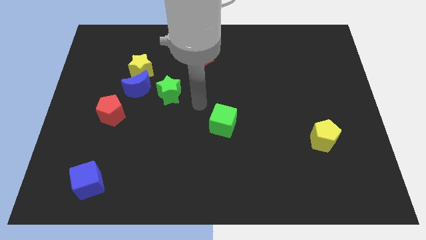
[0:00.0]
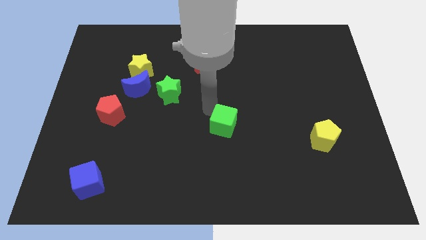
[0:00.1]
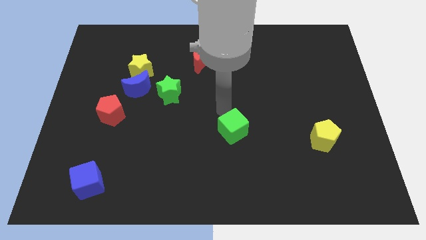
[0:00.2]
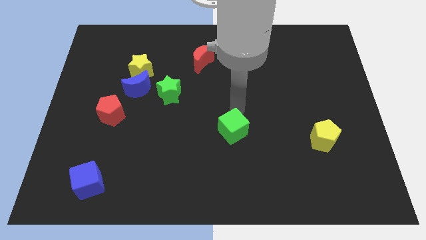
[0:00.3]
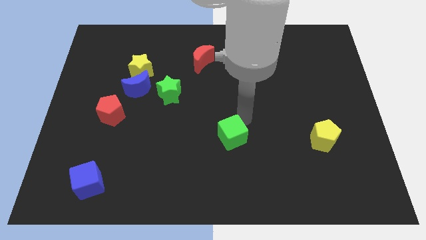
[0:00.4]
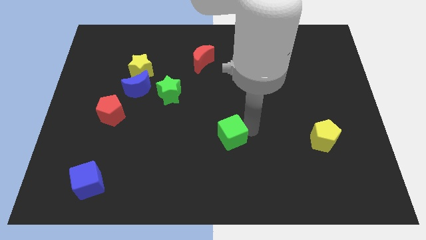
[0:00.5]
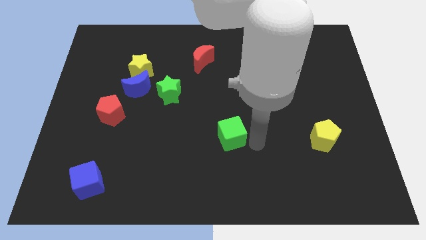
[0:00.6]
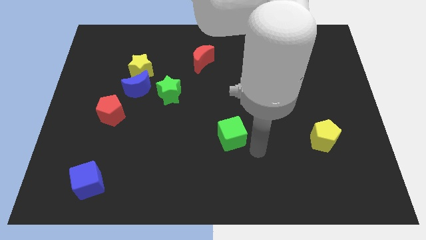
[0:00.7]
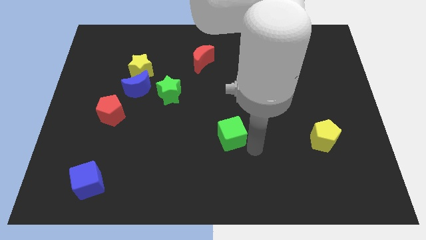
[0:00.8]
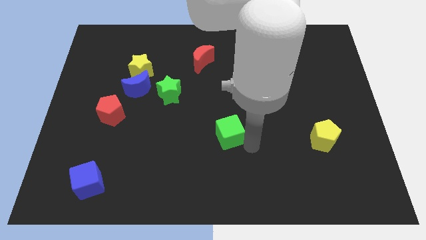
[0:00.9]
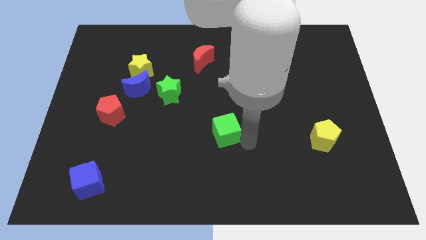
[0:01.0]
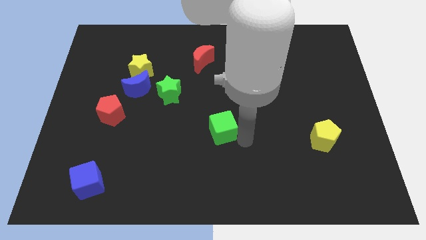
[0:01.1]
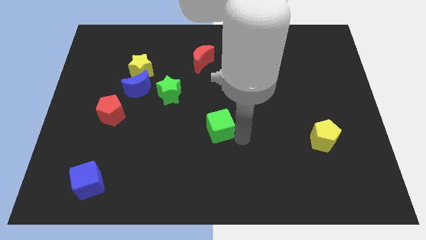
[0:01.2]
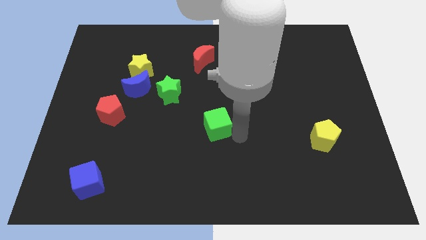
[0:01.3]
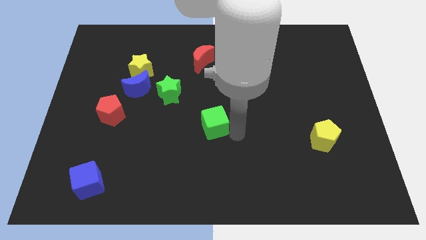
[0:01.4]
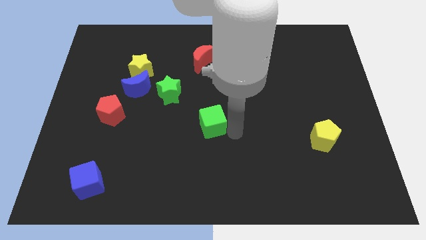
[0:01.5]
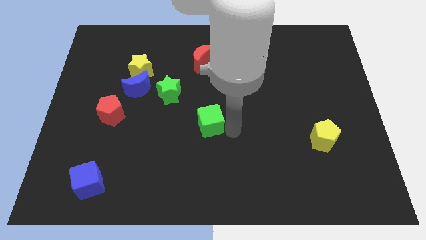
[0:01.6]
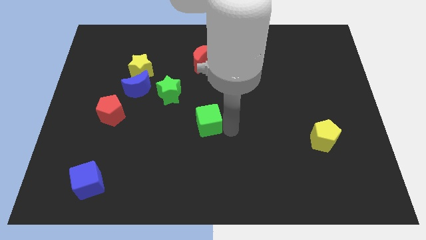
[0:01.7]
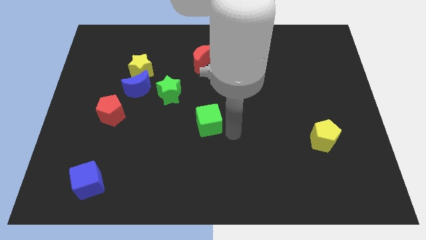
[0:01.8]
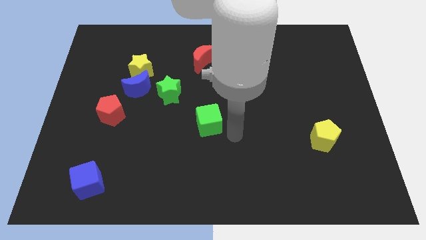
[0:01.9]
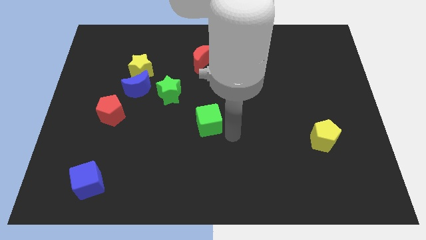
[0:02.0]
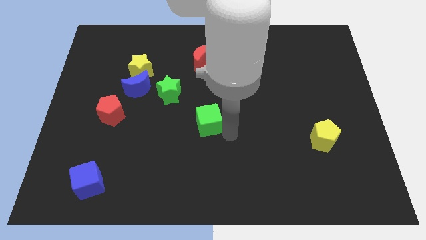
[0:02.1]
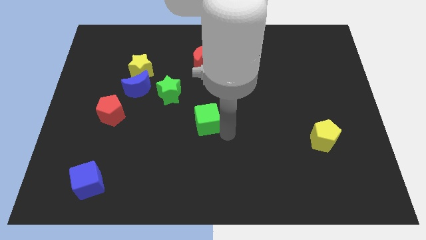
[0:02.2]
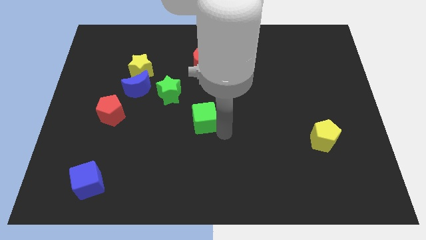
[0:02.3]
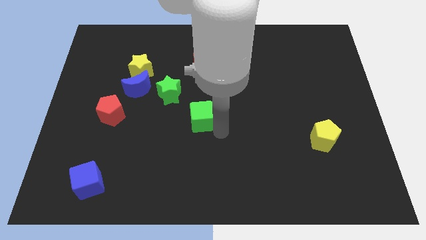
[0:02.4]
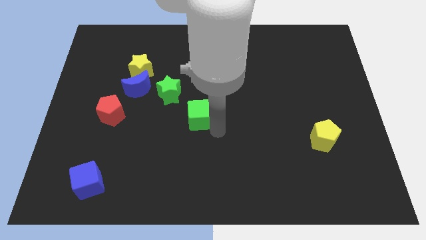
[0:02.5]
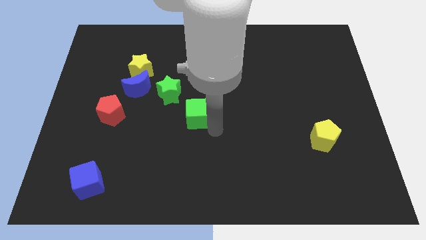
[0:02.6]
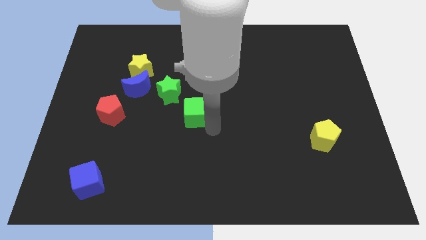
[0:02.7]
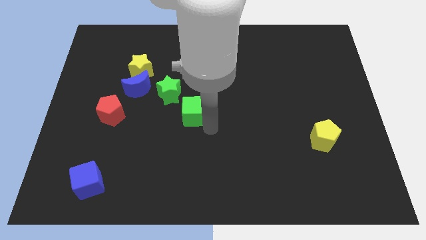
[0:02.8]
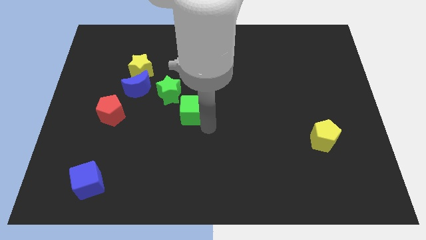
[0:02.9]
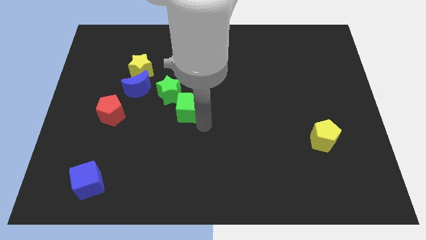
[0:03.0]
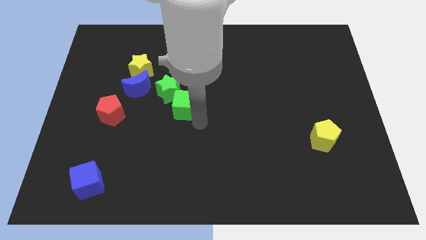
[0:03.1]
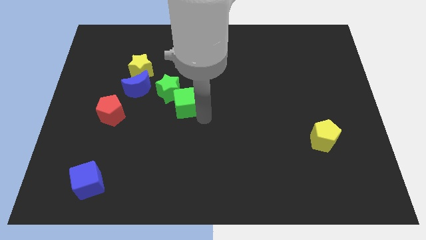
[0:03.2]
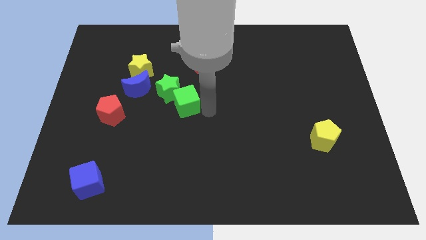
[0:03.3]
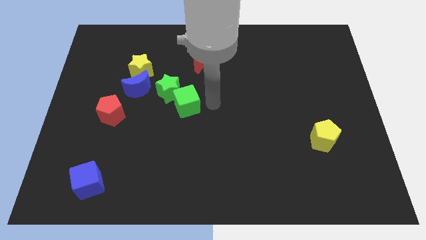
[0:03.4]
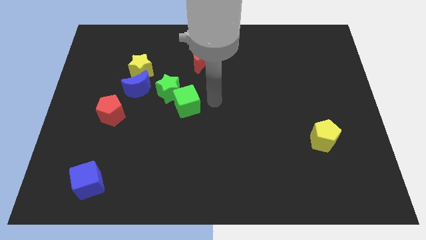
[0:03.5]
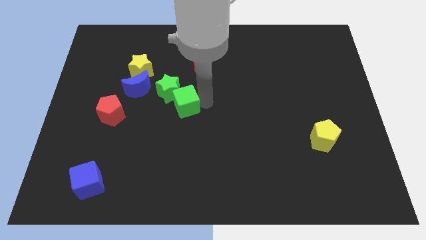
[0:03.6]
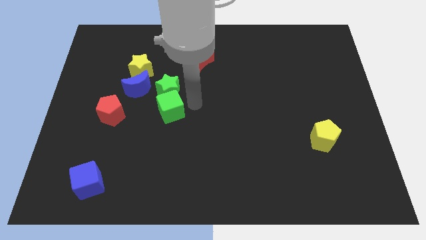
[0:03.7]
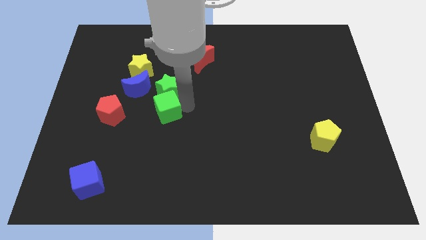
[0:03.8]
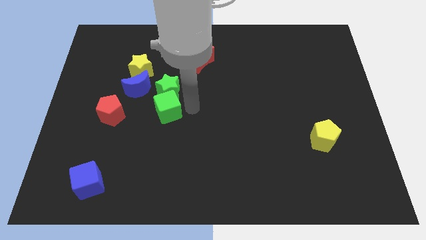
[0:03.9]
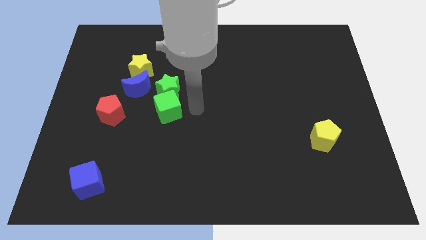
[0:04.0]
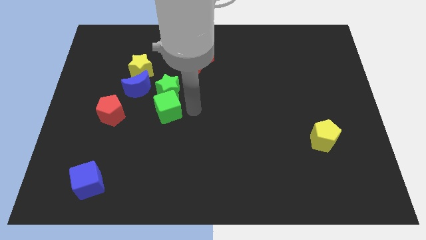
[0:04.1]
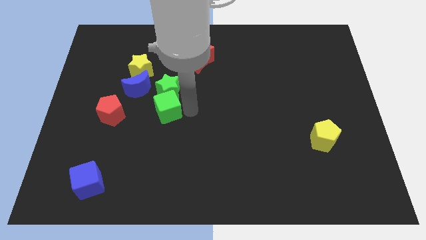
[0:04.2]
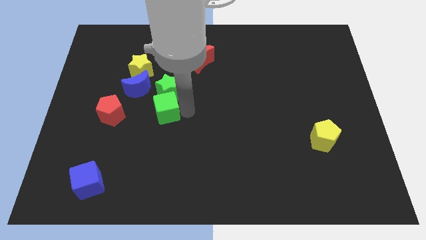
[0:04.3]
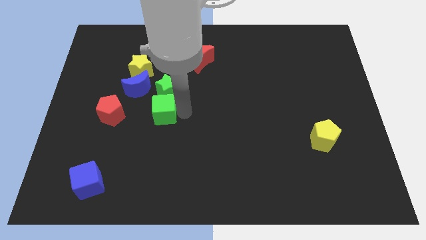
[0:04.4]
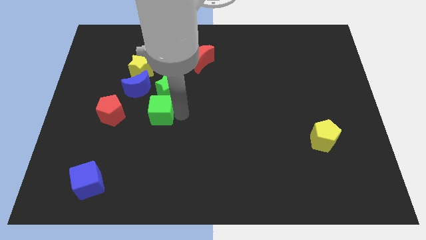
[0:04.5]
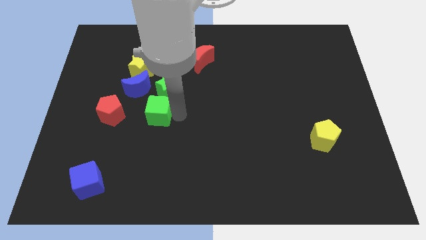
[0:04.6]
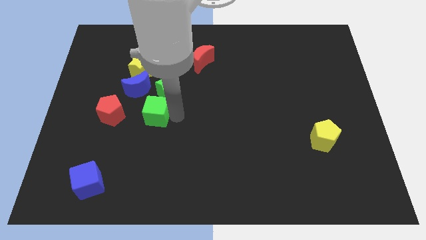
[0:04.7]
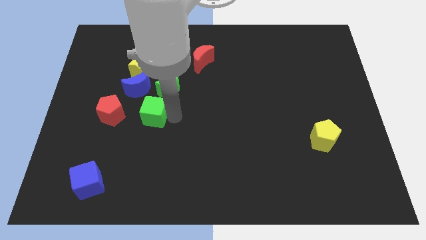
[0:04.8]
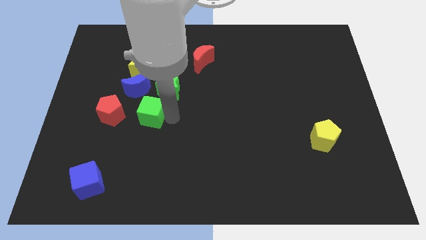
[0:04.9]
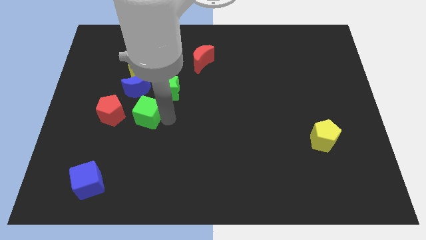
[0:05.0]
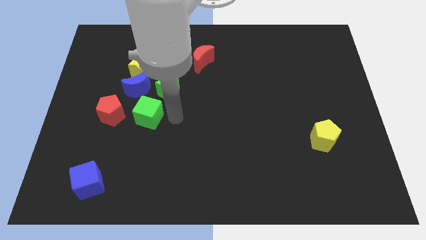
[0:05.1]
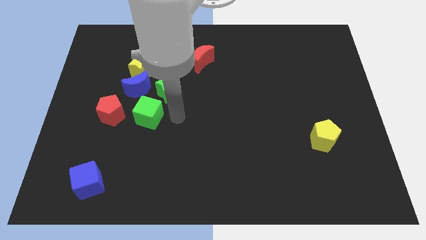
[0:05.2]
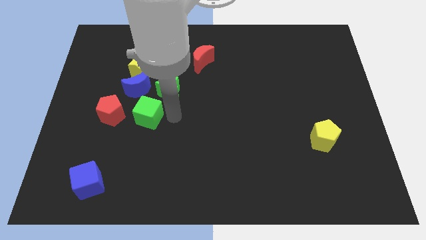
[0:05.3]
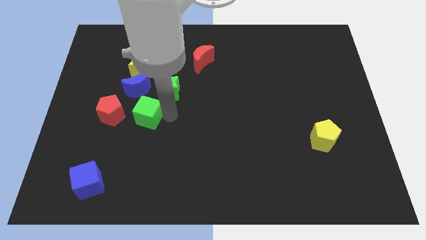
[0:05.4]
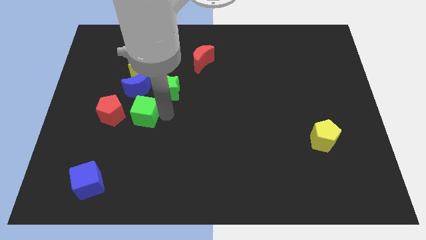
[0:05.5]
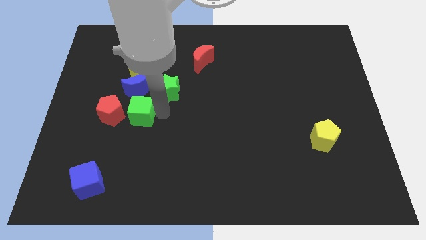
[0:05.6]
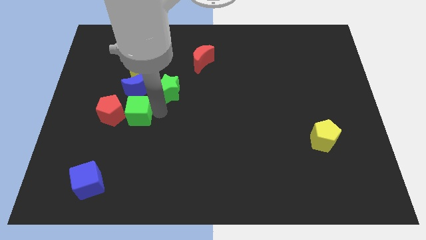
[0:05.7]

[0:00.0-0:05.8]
slide the green cube to the red pentagon

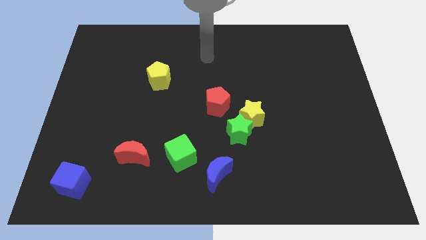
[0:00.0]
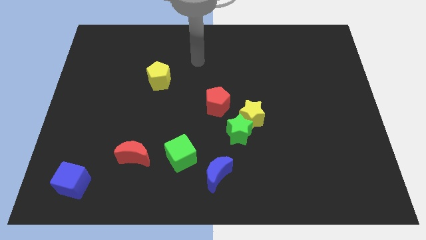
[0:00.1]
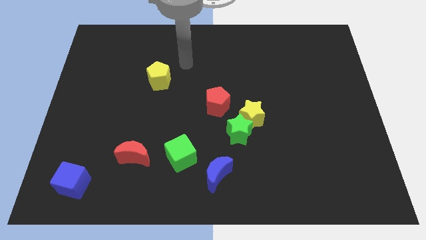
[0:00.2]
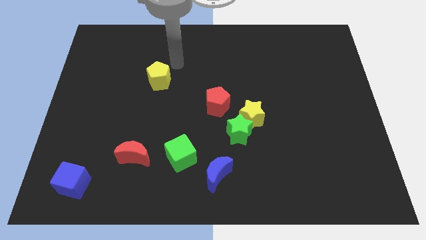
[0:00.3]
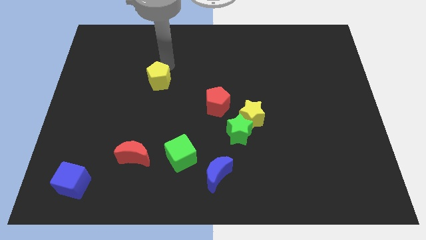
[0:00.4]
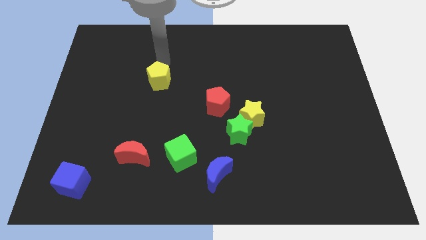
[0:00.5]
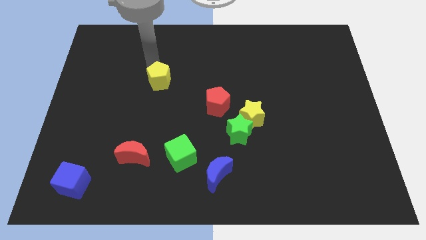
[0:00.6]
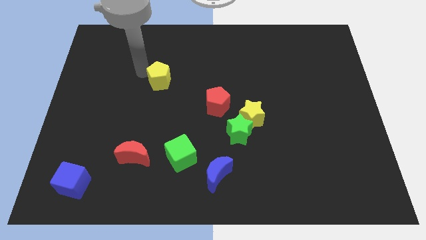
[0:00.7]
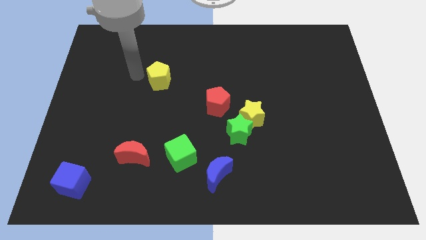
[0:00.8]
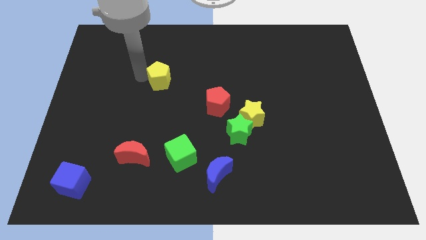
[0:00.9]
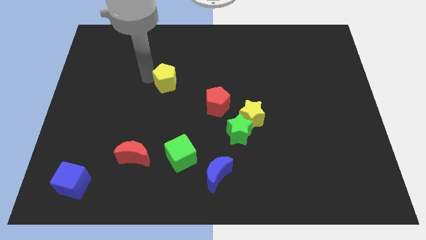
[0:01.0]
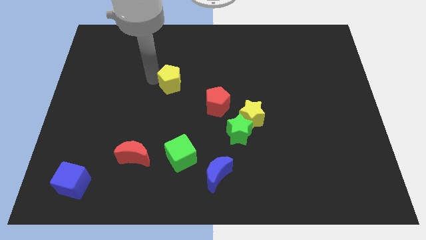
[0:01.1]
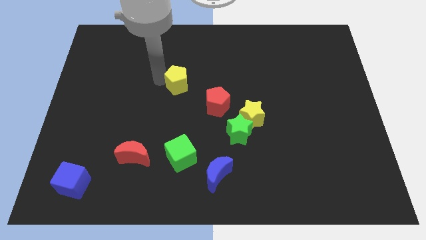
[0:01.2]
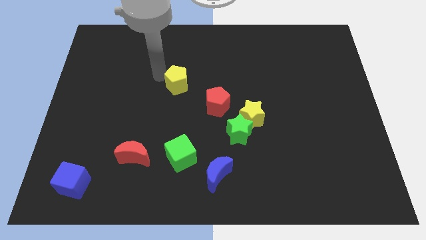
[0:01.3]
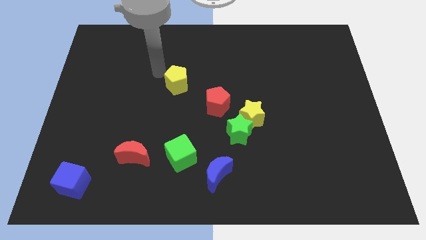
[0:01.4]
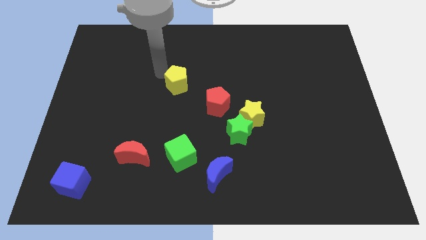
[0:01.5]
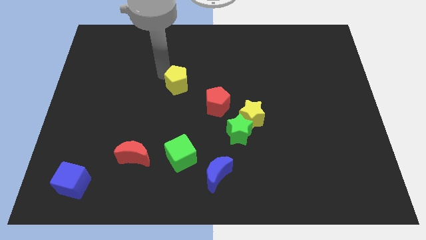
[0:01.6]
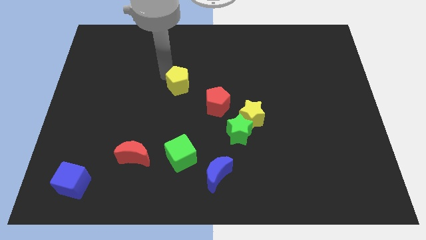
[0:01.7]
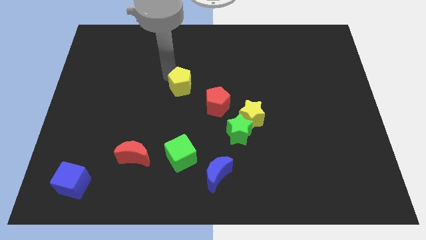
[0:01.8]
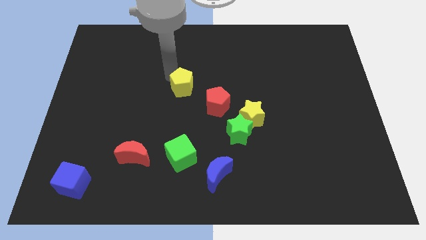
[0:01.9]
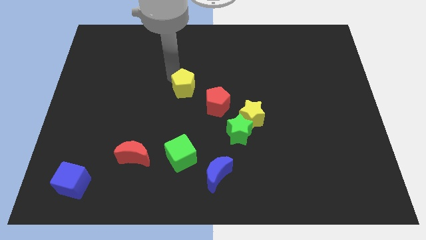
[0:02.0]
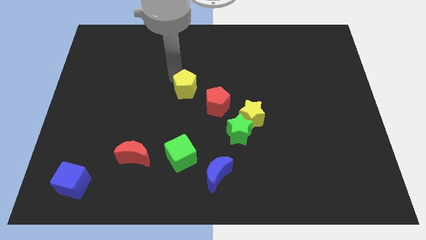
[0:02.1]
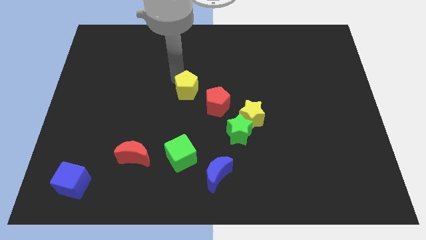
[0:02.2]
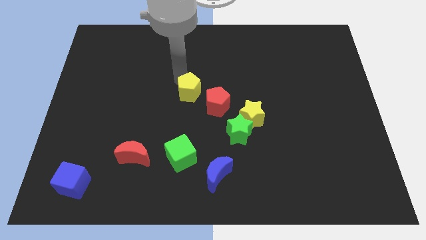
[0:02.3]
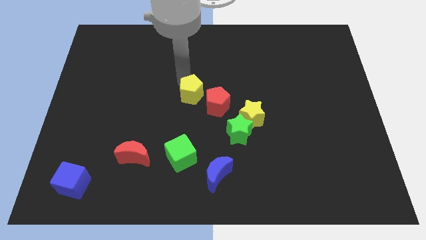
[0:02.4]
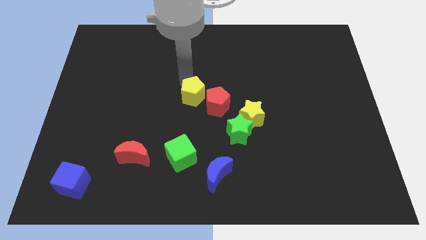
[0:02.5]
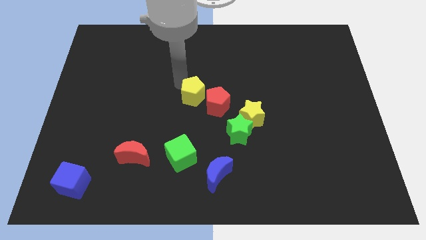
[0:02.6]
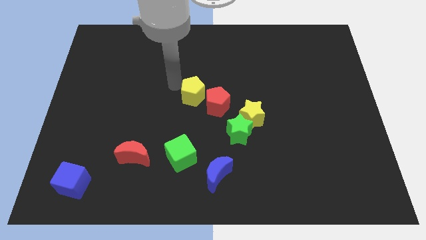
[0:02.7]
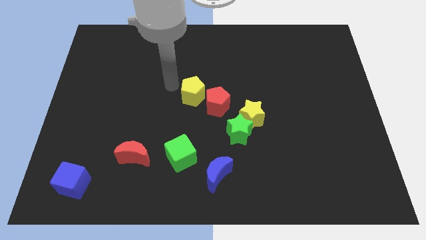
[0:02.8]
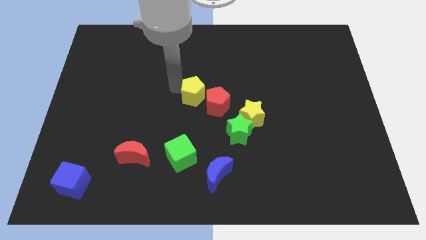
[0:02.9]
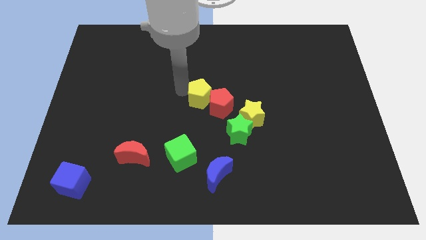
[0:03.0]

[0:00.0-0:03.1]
put the yellow pentagon to the red pentagon
